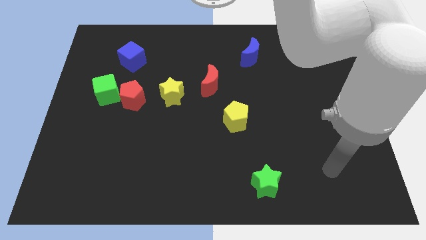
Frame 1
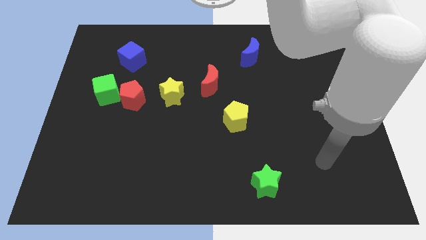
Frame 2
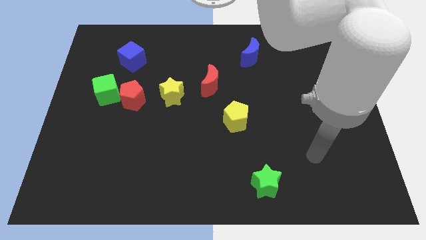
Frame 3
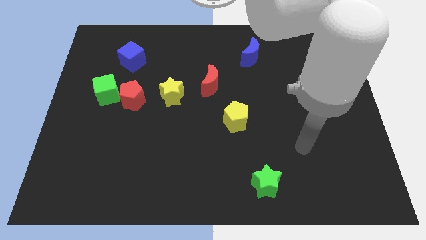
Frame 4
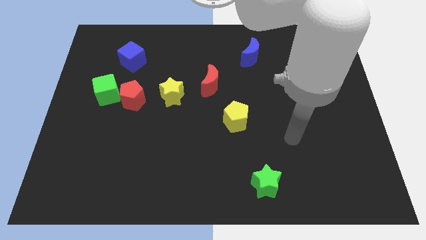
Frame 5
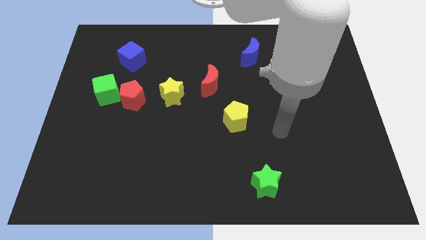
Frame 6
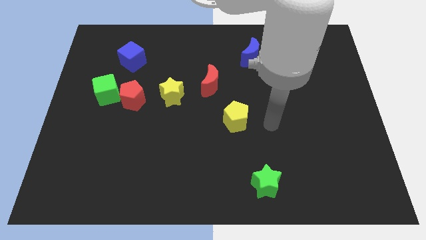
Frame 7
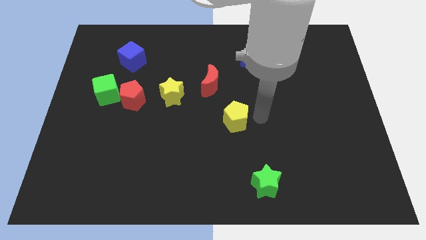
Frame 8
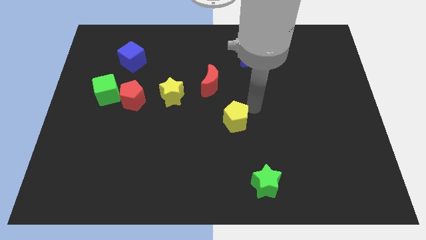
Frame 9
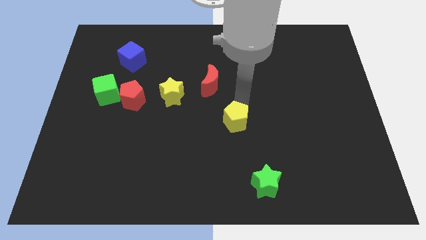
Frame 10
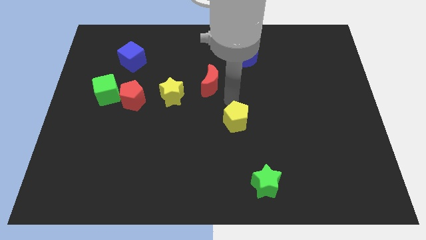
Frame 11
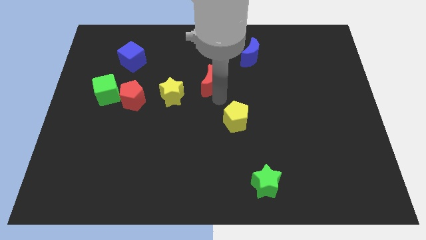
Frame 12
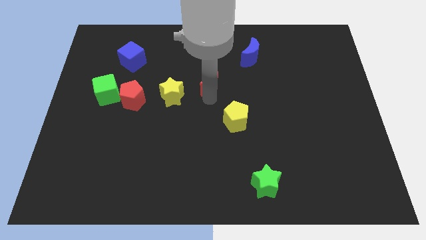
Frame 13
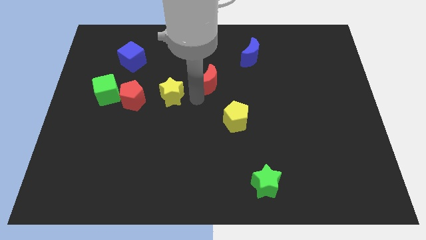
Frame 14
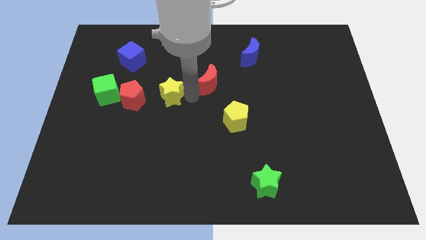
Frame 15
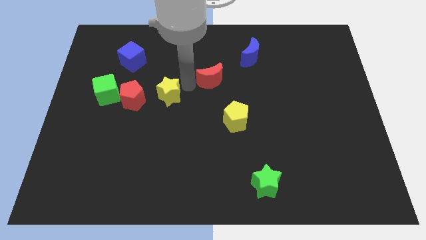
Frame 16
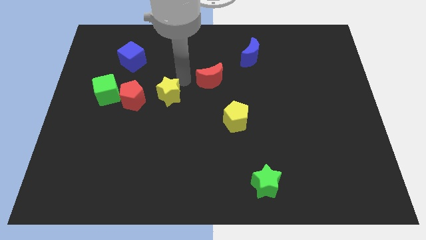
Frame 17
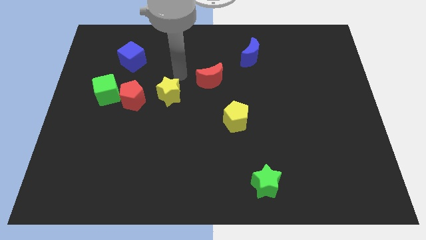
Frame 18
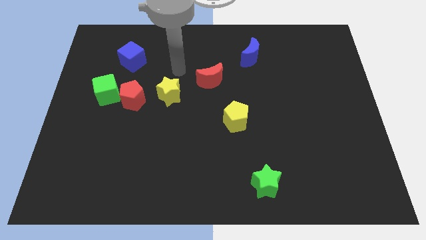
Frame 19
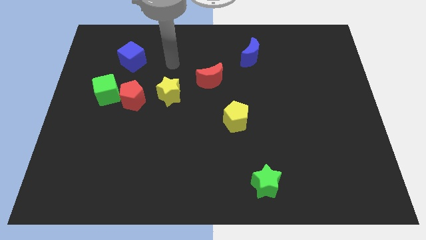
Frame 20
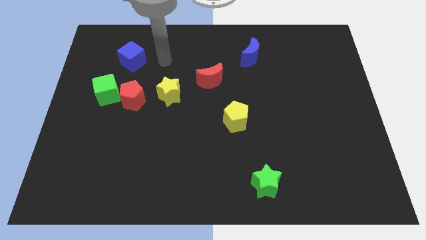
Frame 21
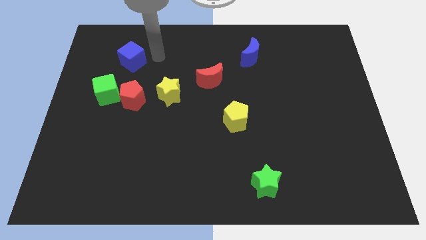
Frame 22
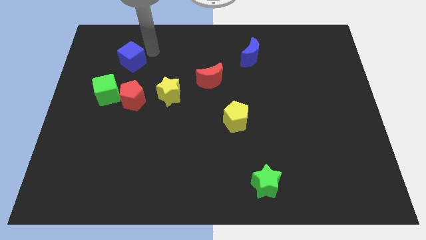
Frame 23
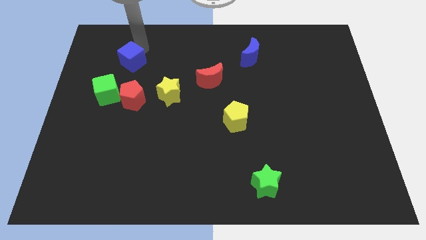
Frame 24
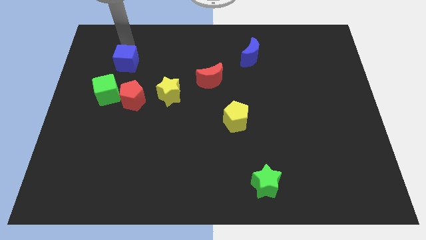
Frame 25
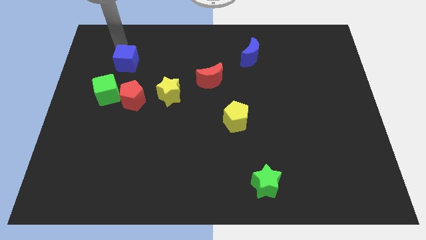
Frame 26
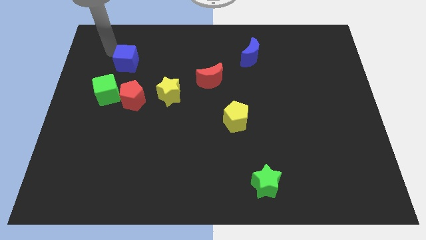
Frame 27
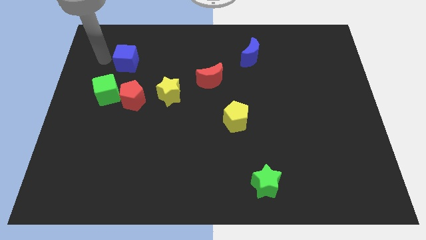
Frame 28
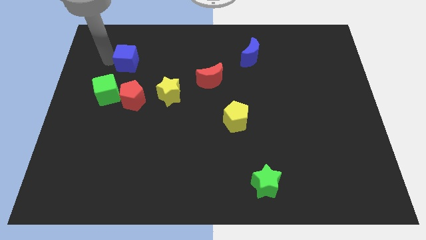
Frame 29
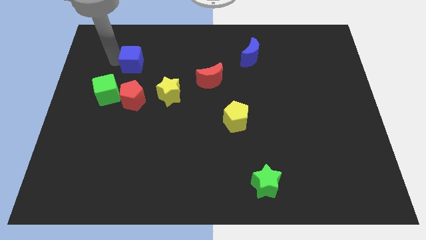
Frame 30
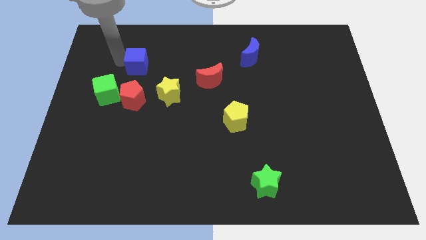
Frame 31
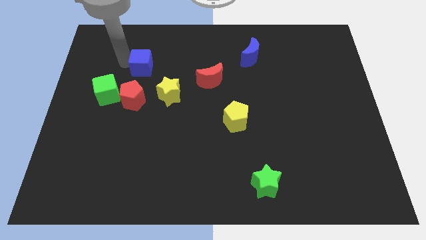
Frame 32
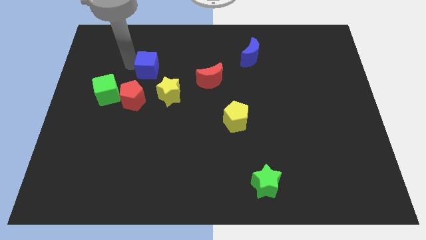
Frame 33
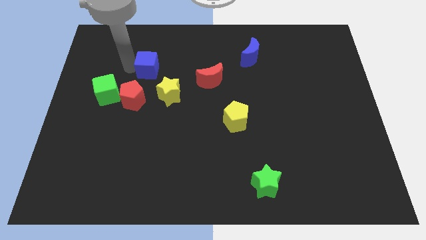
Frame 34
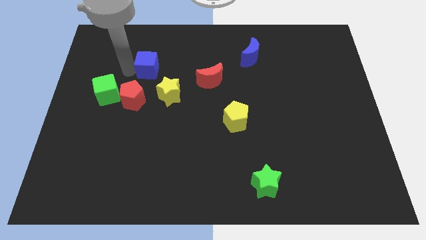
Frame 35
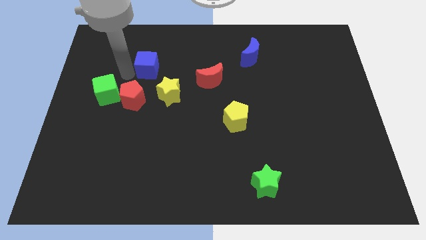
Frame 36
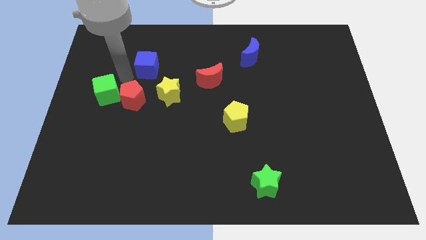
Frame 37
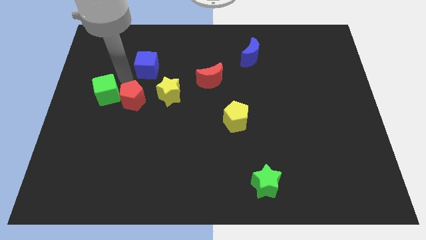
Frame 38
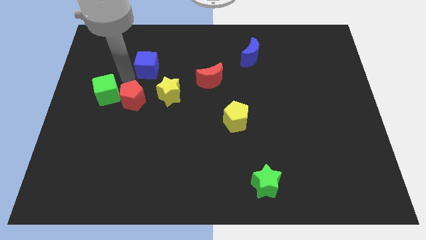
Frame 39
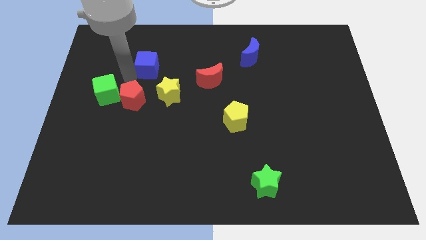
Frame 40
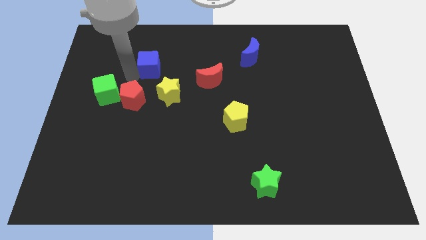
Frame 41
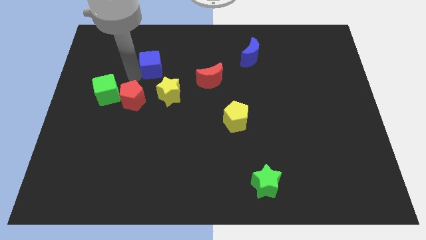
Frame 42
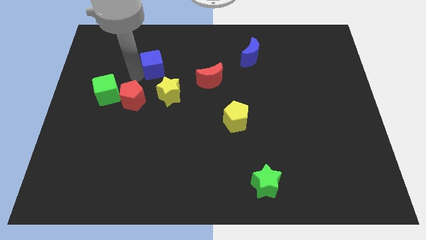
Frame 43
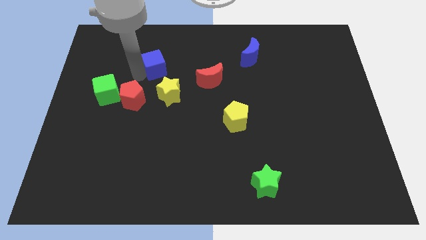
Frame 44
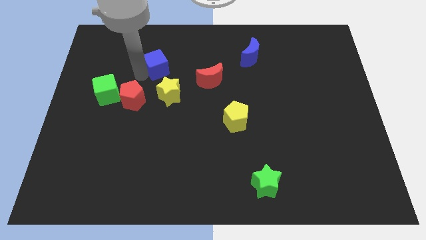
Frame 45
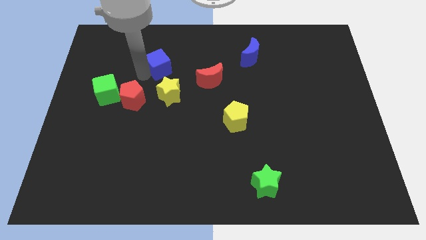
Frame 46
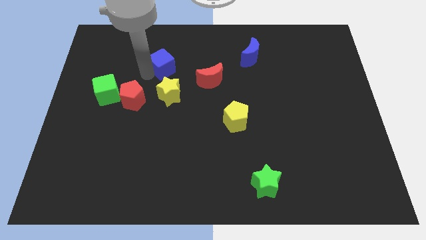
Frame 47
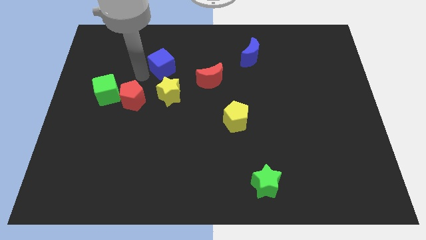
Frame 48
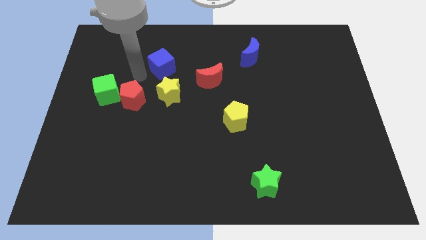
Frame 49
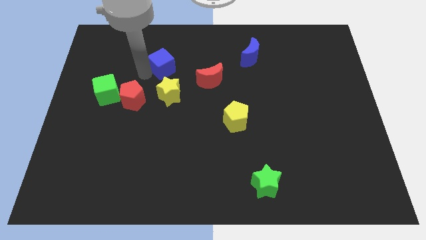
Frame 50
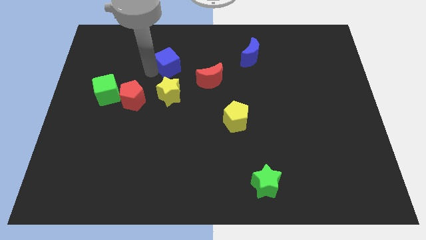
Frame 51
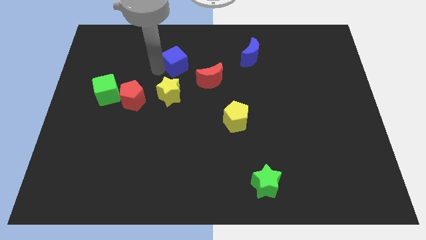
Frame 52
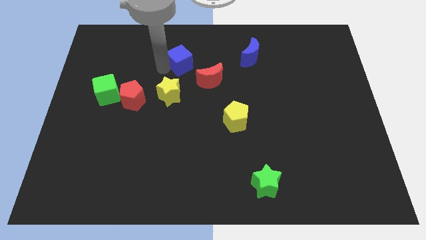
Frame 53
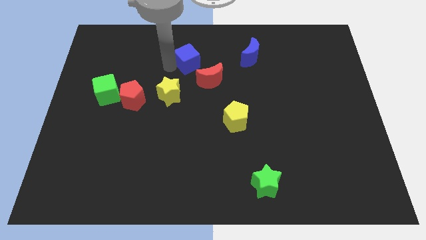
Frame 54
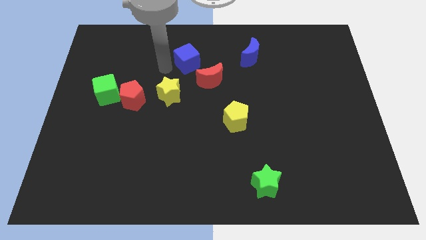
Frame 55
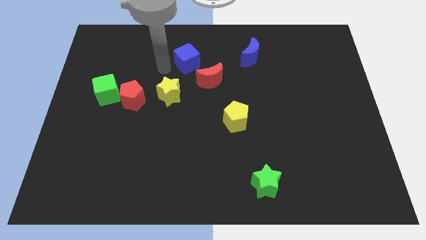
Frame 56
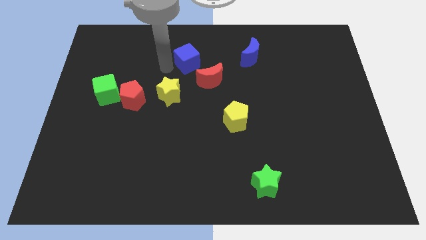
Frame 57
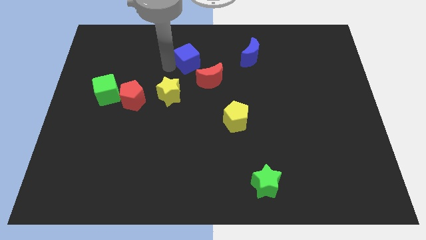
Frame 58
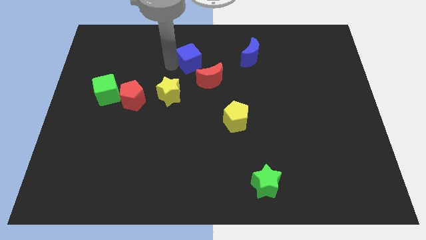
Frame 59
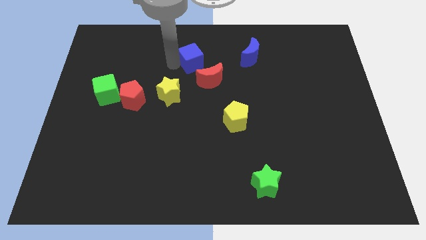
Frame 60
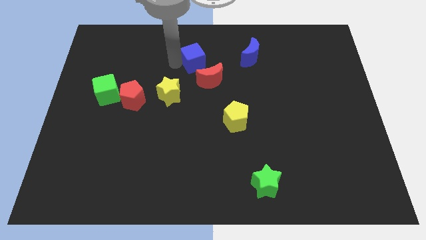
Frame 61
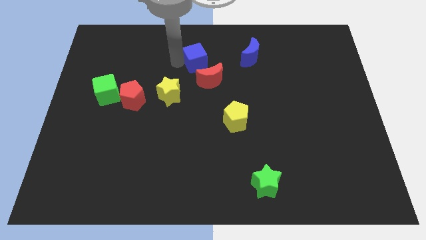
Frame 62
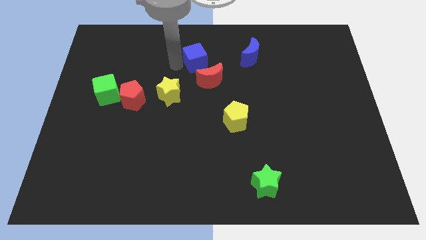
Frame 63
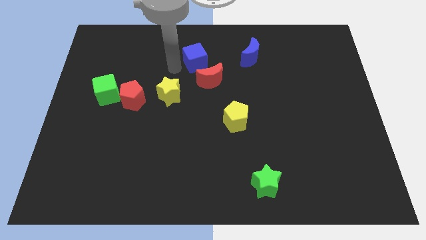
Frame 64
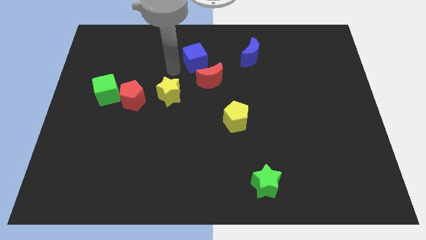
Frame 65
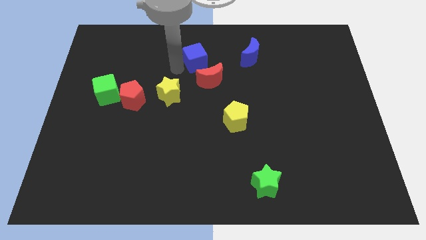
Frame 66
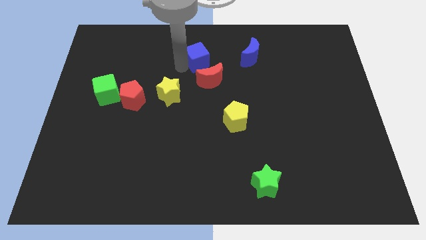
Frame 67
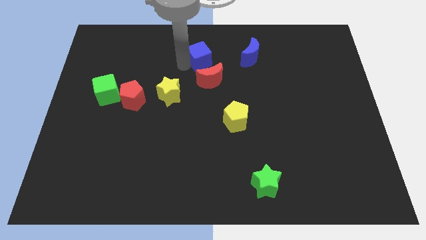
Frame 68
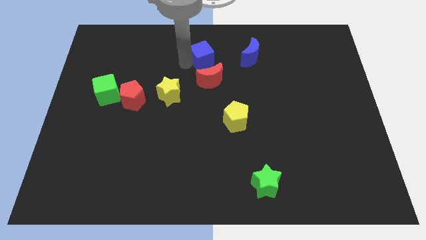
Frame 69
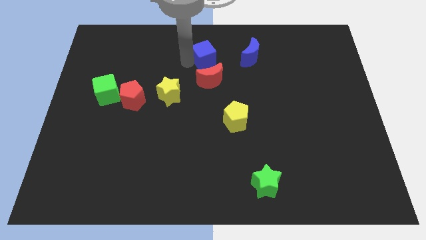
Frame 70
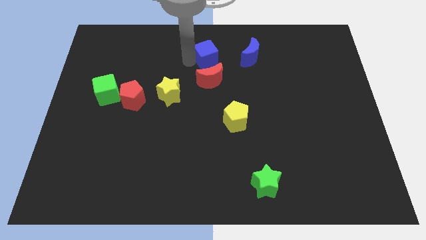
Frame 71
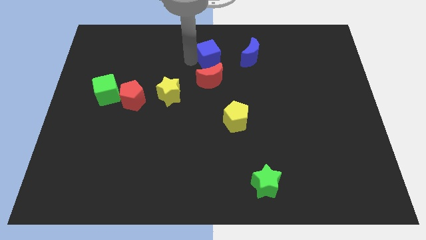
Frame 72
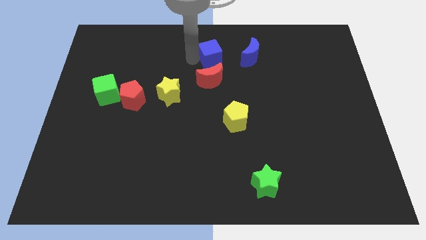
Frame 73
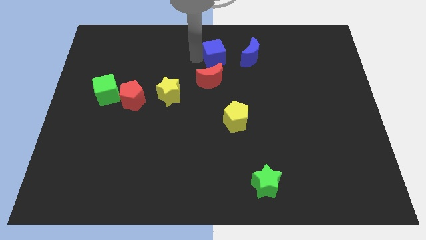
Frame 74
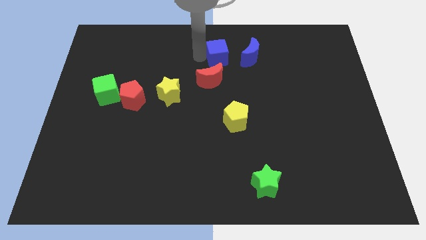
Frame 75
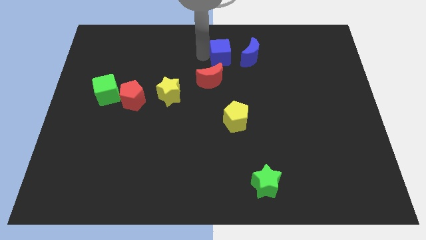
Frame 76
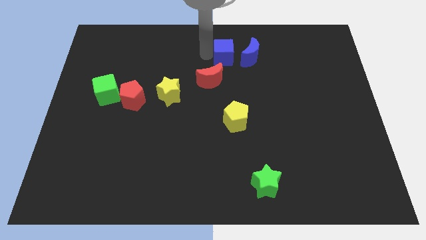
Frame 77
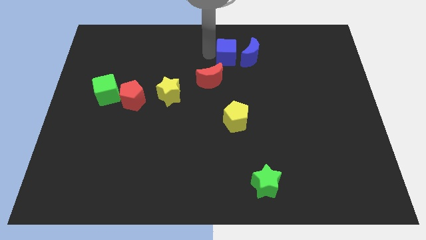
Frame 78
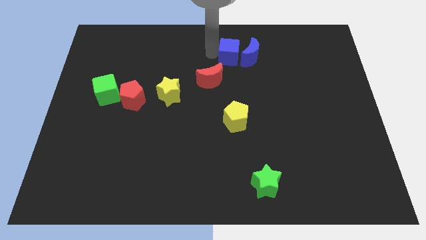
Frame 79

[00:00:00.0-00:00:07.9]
slide the blue cube close to the blue moon
